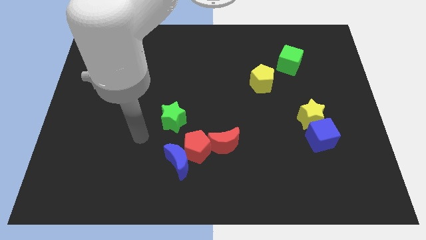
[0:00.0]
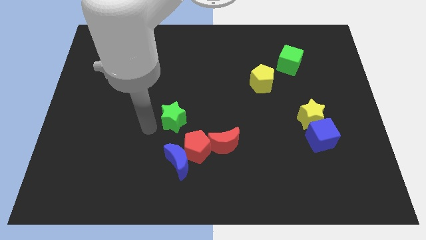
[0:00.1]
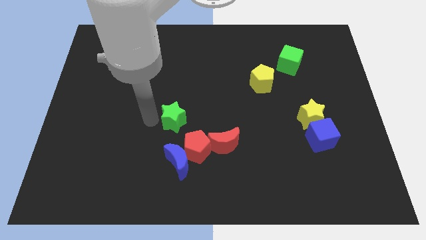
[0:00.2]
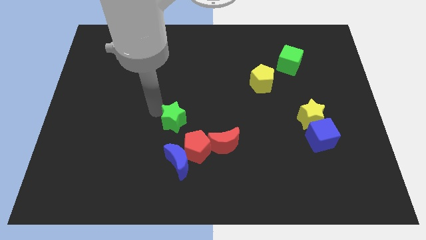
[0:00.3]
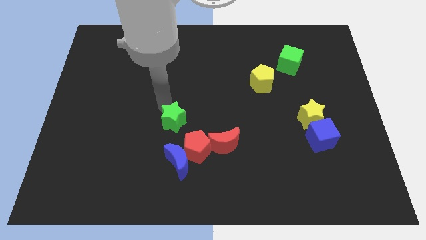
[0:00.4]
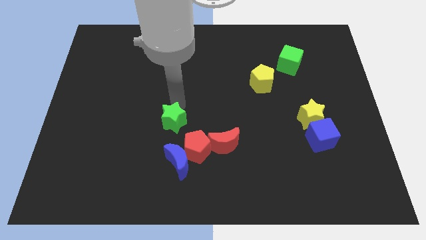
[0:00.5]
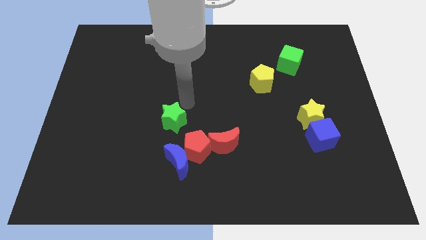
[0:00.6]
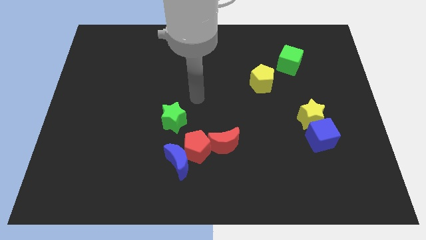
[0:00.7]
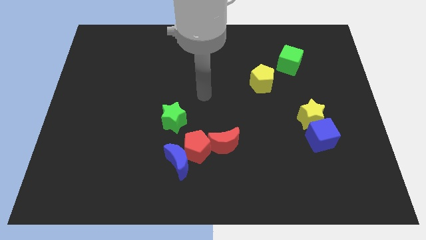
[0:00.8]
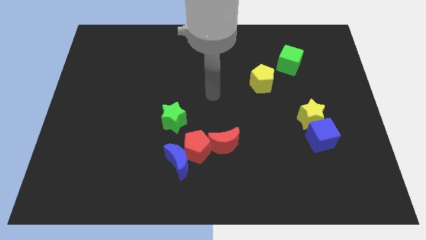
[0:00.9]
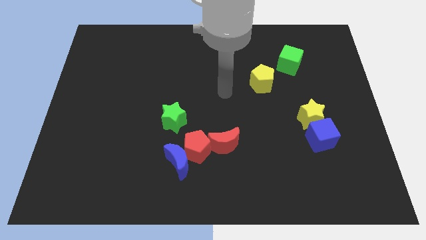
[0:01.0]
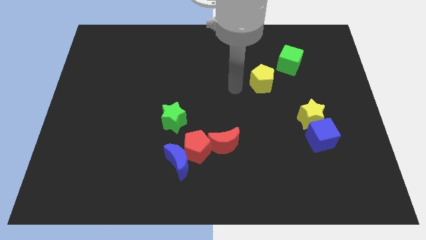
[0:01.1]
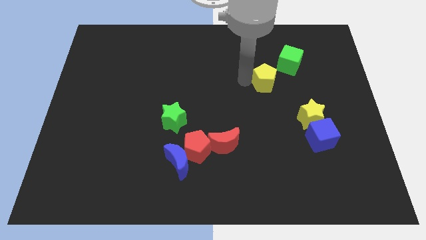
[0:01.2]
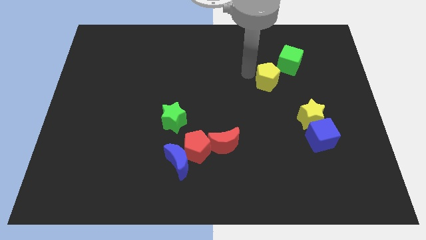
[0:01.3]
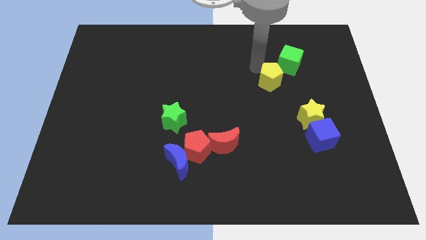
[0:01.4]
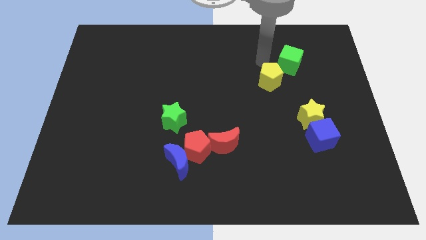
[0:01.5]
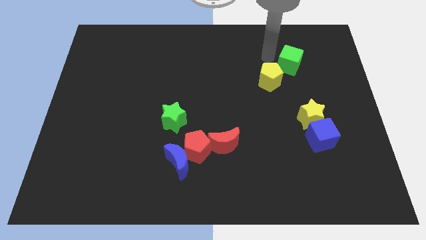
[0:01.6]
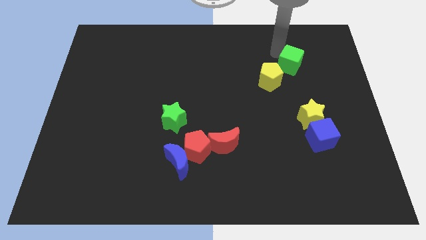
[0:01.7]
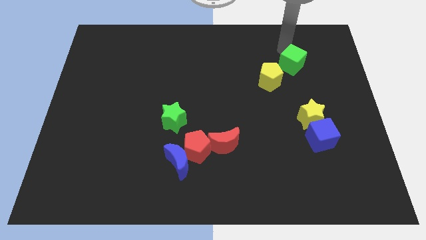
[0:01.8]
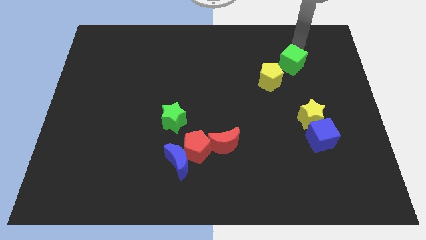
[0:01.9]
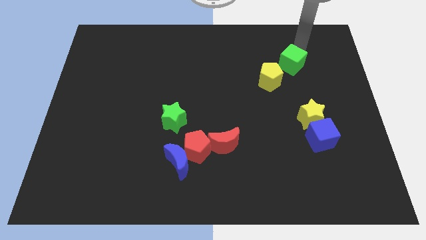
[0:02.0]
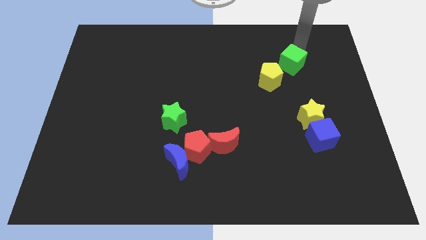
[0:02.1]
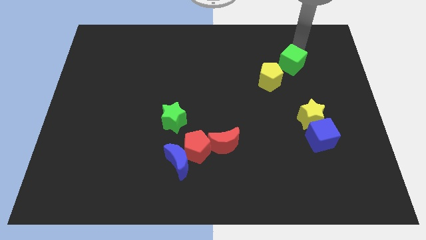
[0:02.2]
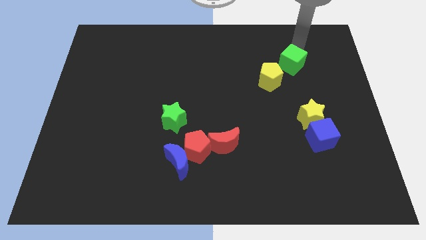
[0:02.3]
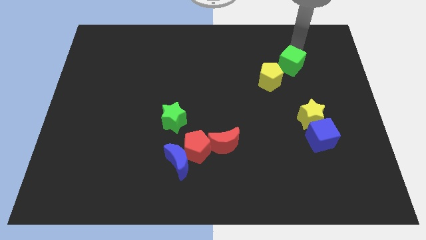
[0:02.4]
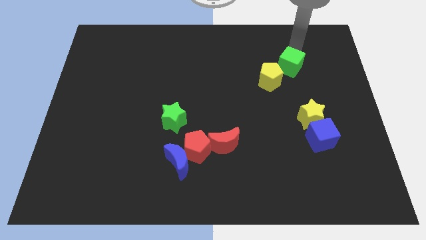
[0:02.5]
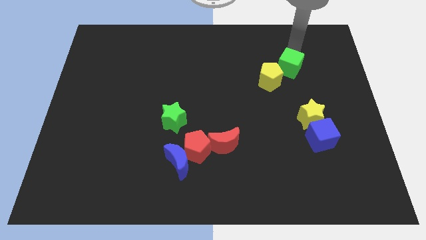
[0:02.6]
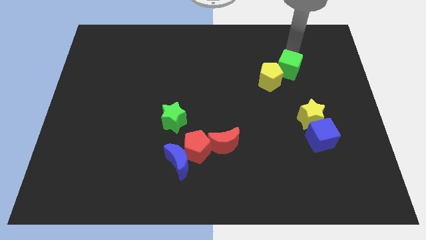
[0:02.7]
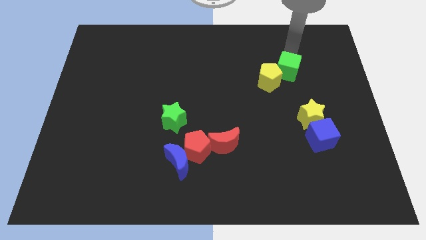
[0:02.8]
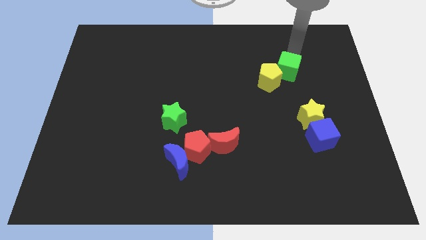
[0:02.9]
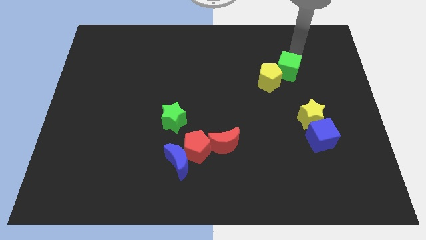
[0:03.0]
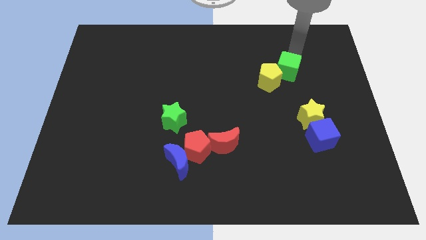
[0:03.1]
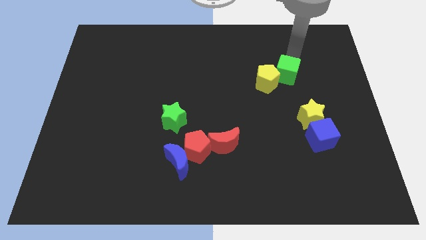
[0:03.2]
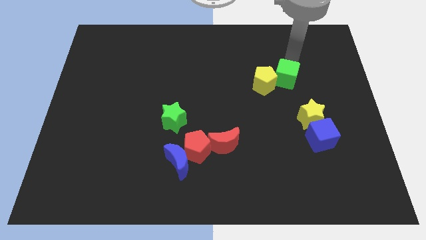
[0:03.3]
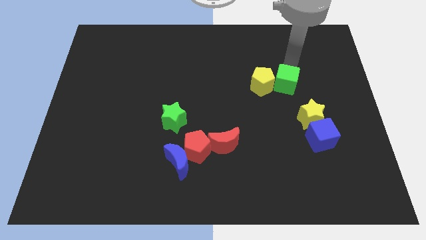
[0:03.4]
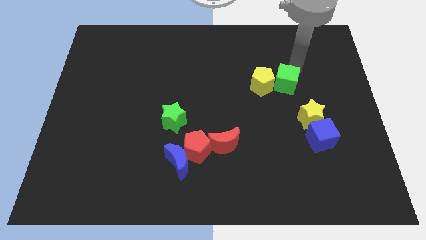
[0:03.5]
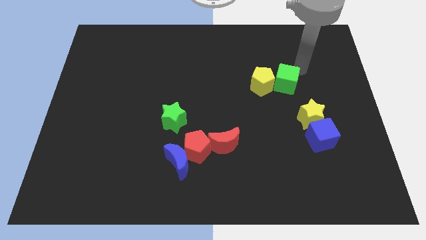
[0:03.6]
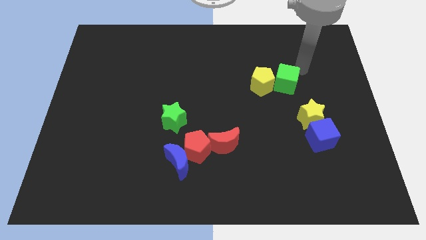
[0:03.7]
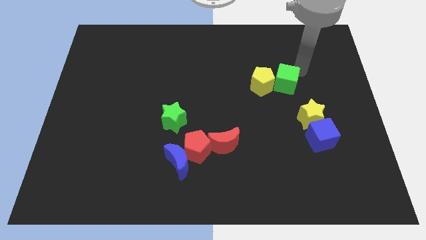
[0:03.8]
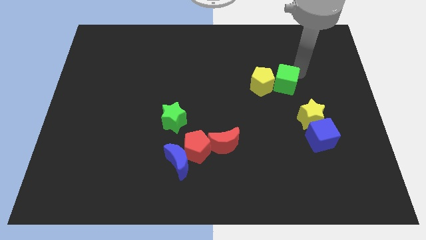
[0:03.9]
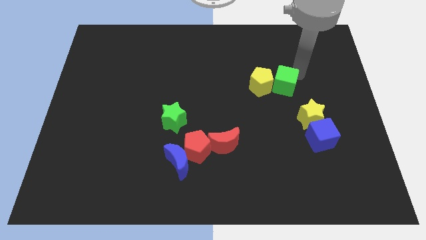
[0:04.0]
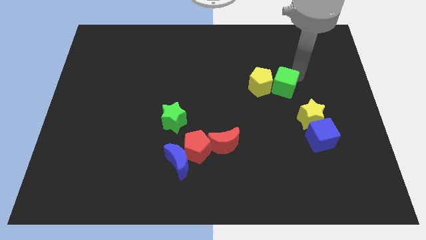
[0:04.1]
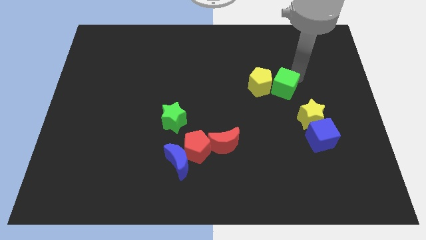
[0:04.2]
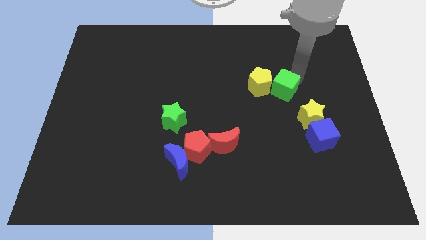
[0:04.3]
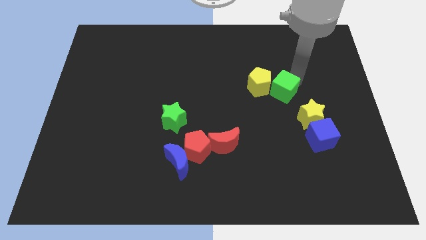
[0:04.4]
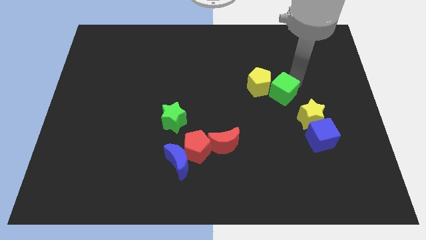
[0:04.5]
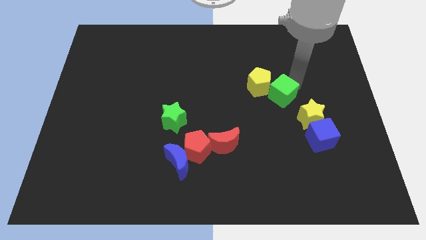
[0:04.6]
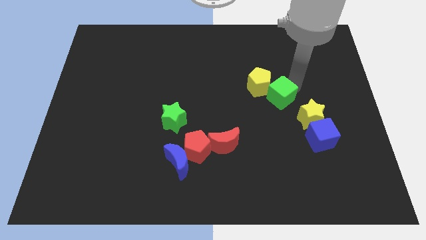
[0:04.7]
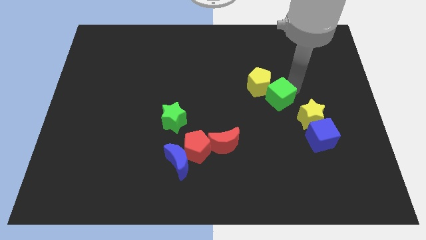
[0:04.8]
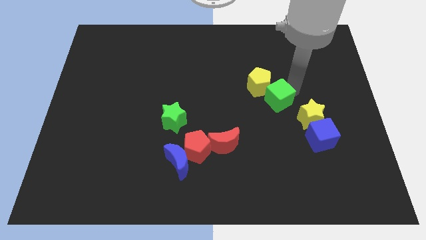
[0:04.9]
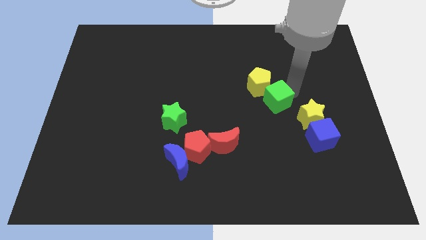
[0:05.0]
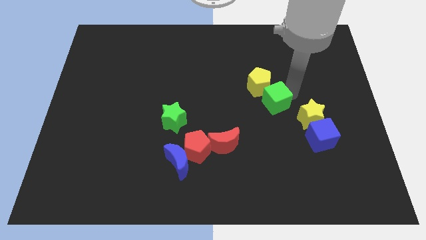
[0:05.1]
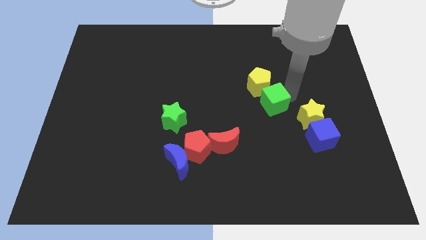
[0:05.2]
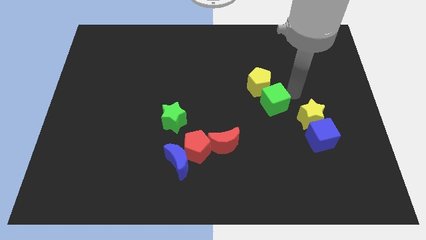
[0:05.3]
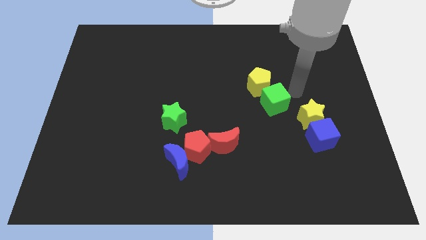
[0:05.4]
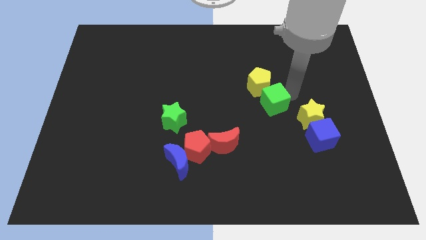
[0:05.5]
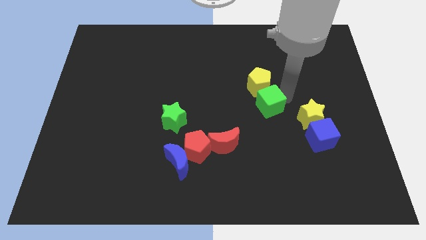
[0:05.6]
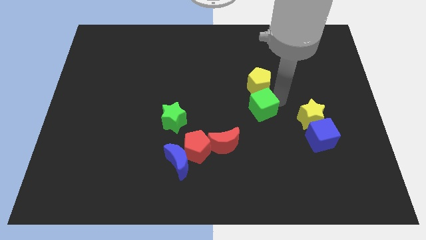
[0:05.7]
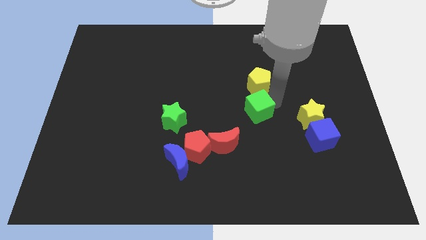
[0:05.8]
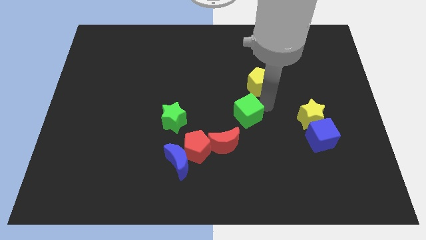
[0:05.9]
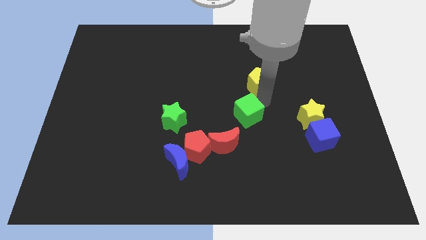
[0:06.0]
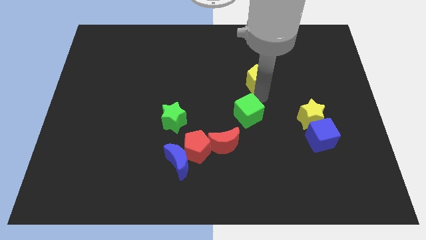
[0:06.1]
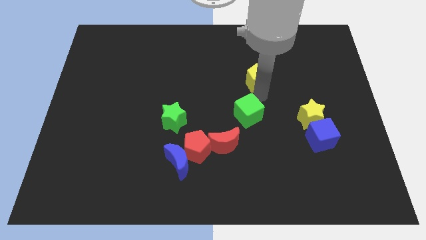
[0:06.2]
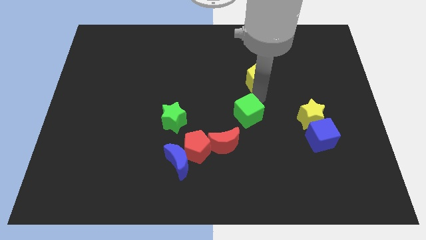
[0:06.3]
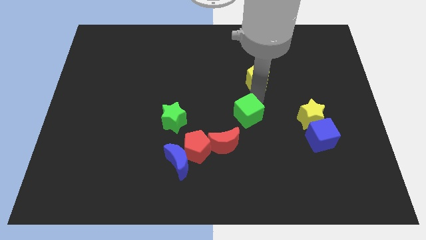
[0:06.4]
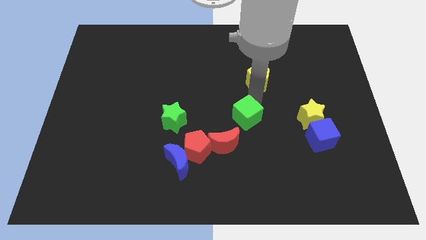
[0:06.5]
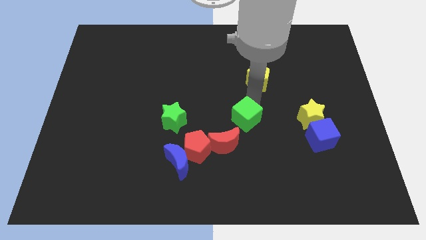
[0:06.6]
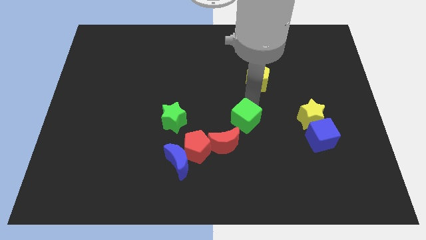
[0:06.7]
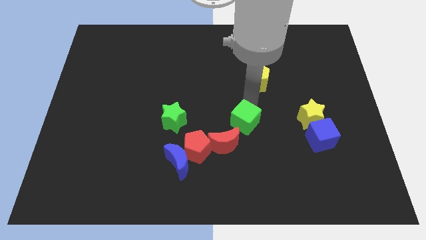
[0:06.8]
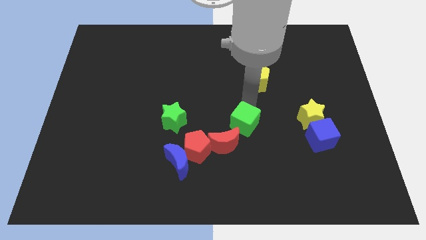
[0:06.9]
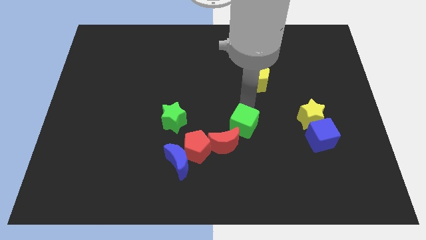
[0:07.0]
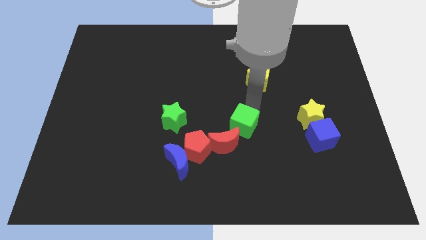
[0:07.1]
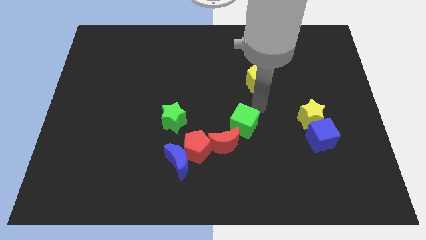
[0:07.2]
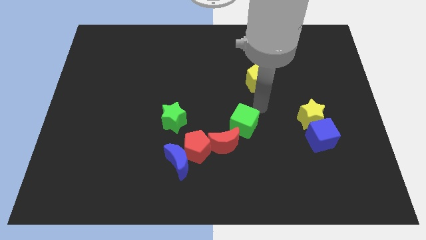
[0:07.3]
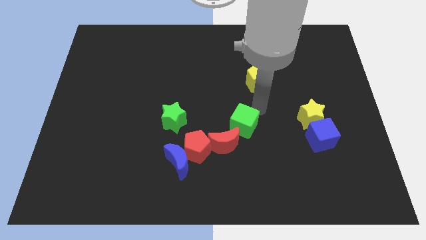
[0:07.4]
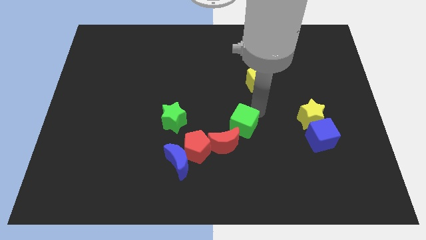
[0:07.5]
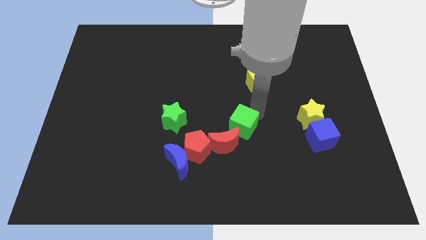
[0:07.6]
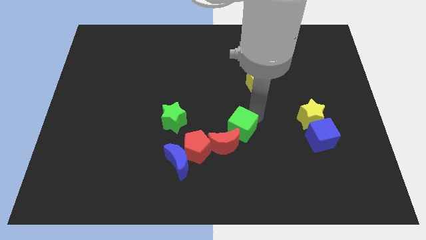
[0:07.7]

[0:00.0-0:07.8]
slide the green cube towards the red moon
